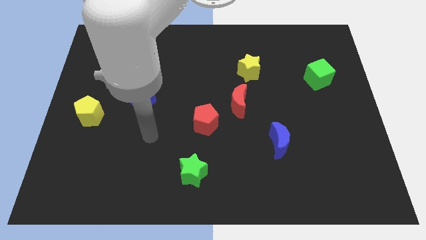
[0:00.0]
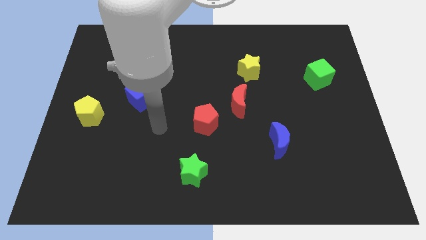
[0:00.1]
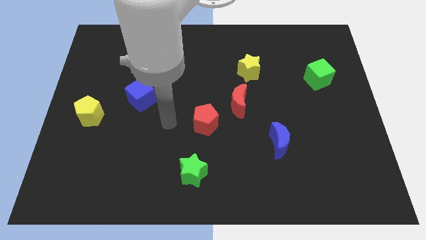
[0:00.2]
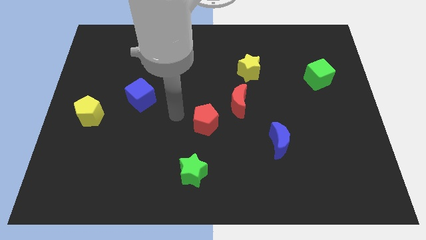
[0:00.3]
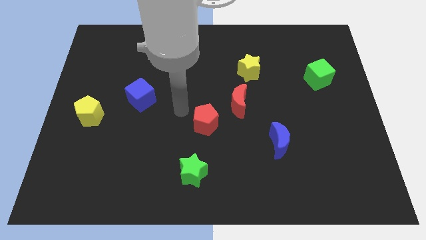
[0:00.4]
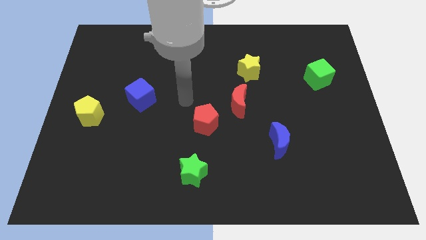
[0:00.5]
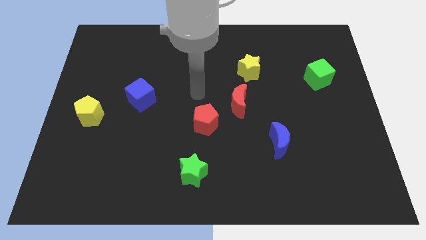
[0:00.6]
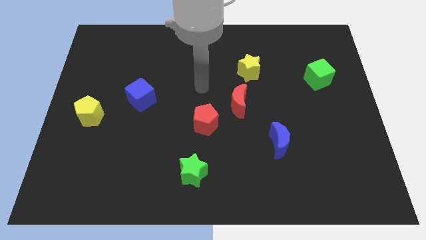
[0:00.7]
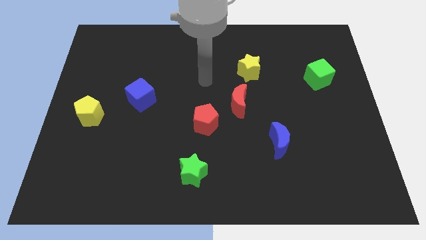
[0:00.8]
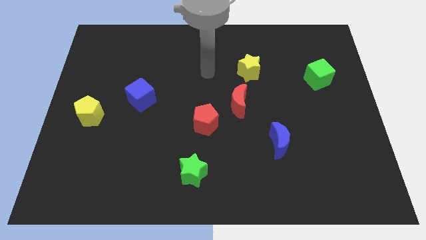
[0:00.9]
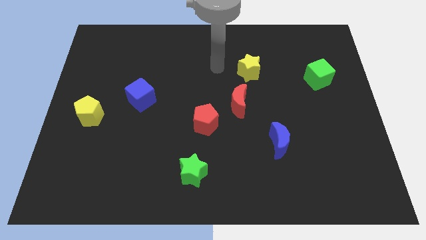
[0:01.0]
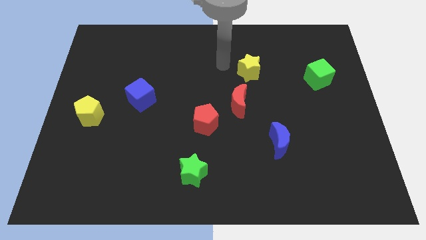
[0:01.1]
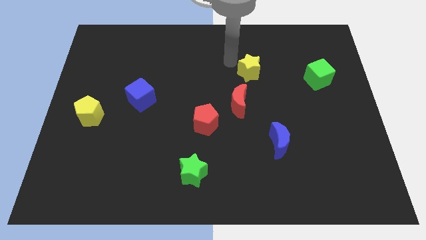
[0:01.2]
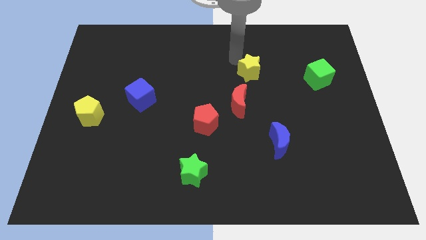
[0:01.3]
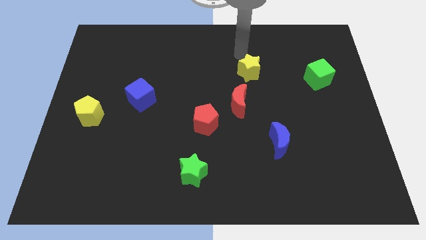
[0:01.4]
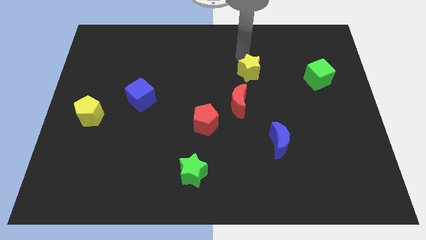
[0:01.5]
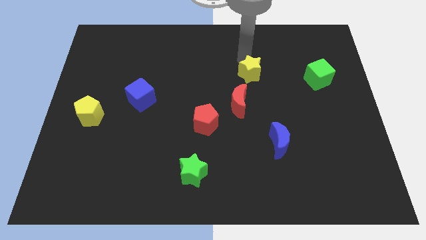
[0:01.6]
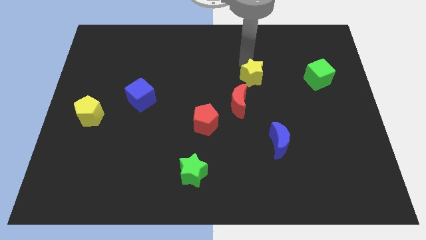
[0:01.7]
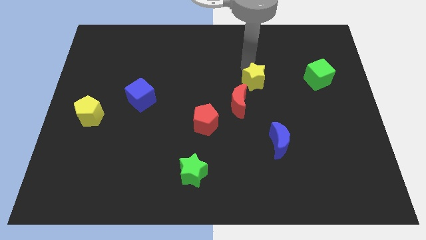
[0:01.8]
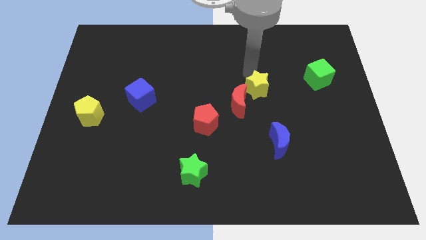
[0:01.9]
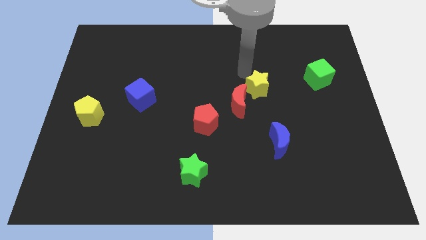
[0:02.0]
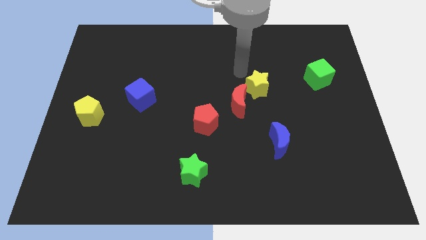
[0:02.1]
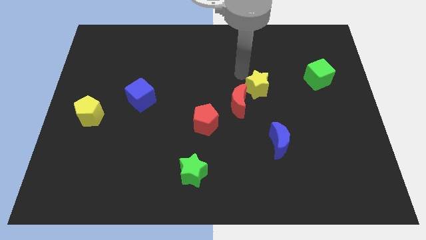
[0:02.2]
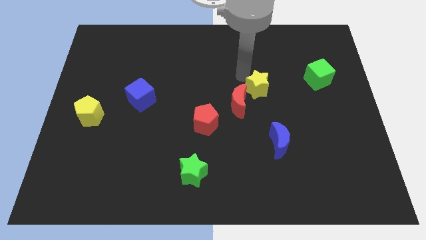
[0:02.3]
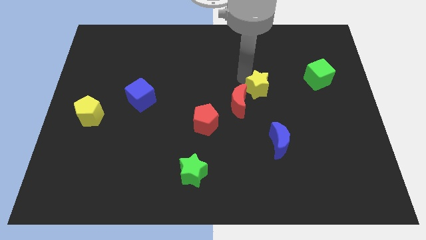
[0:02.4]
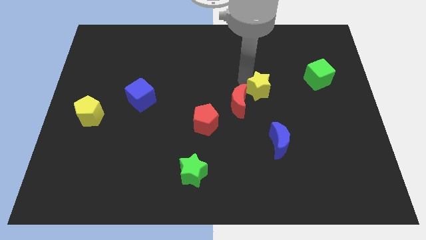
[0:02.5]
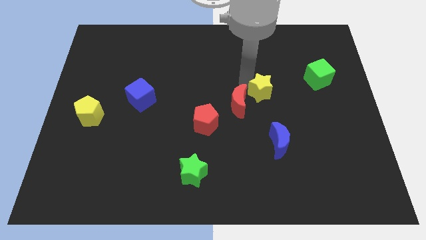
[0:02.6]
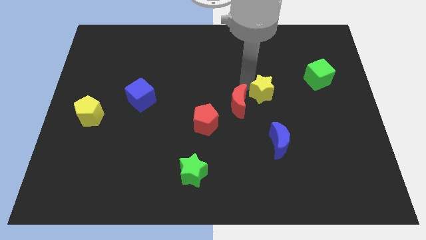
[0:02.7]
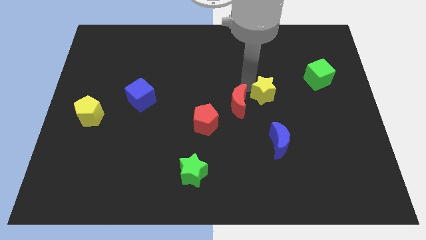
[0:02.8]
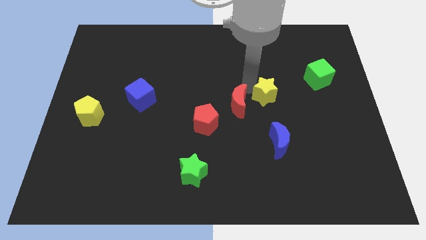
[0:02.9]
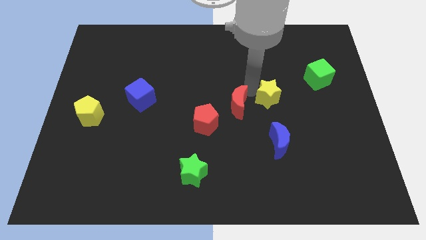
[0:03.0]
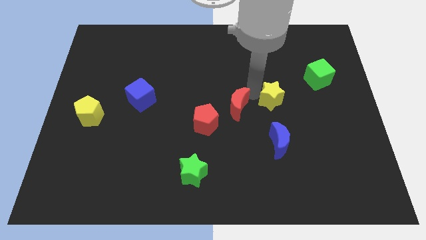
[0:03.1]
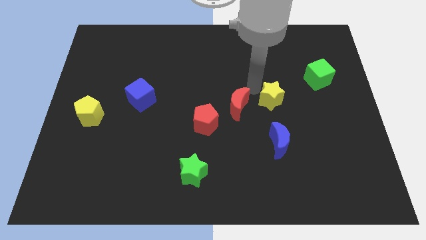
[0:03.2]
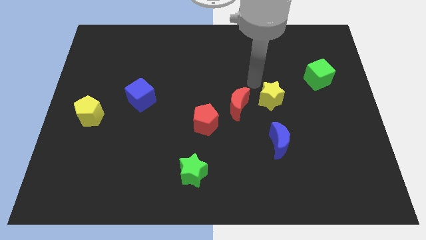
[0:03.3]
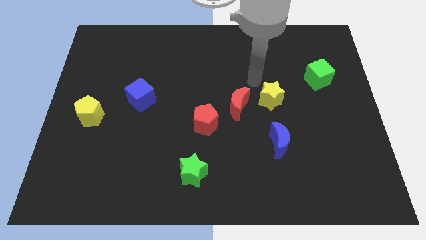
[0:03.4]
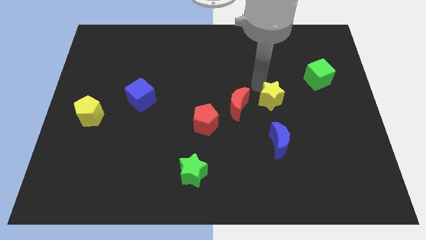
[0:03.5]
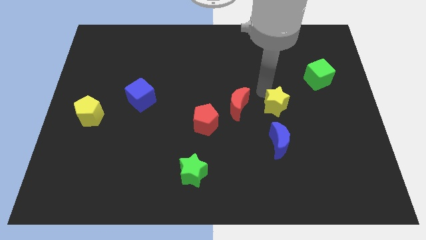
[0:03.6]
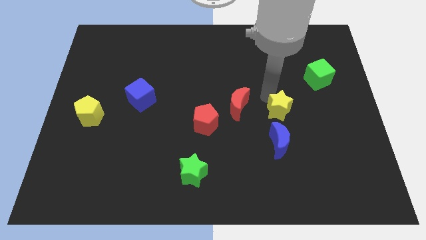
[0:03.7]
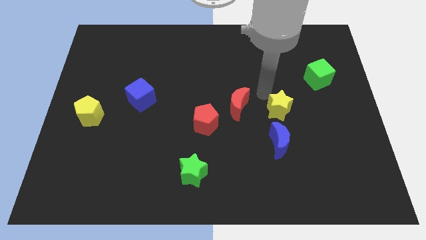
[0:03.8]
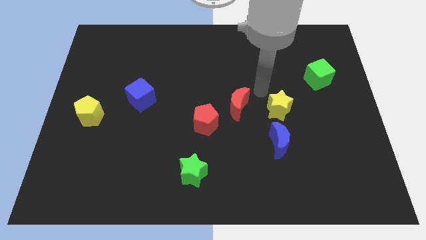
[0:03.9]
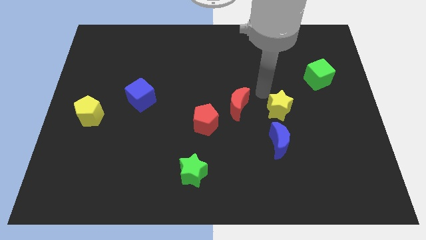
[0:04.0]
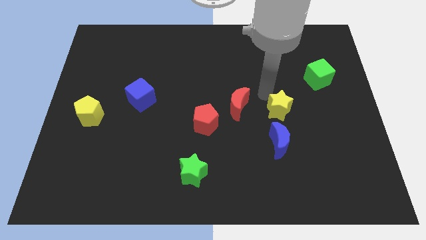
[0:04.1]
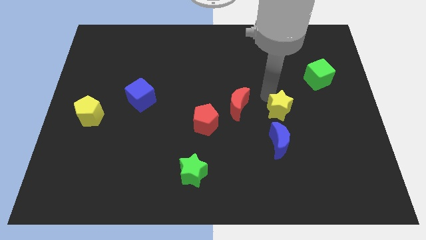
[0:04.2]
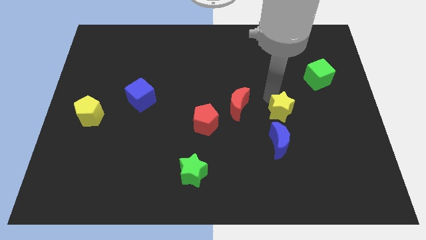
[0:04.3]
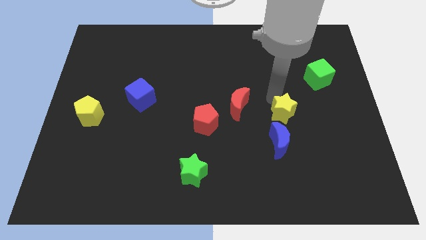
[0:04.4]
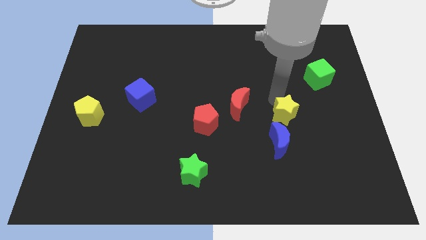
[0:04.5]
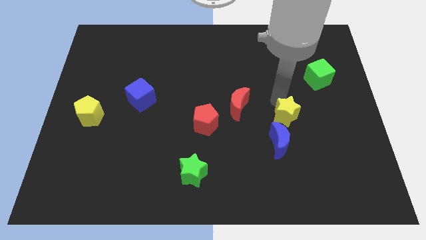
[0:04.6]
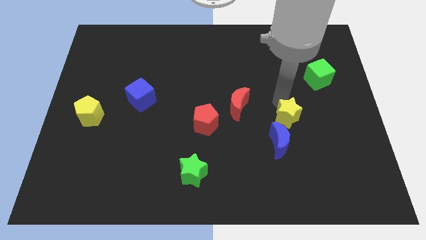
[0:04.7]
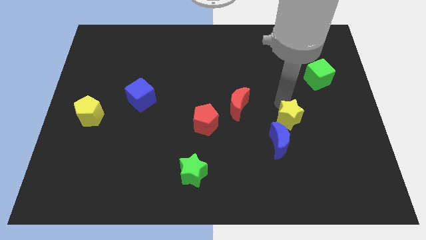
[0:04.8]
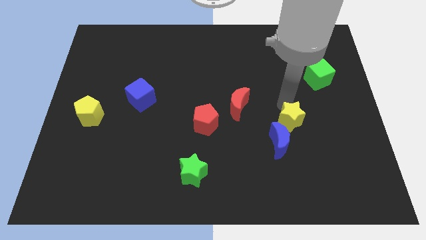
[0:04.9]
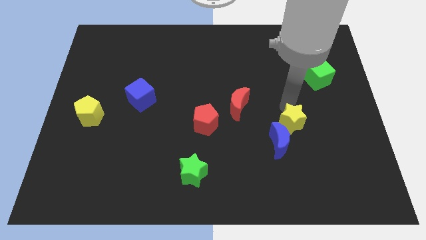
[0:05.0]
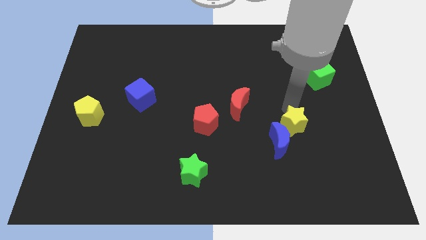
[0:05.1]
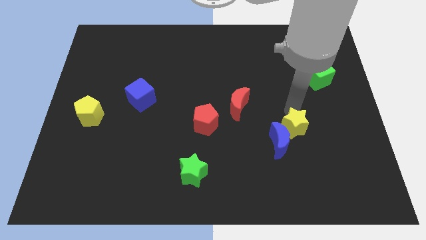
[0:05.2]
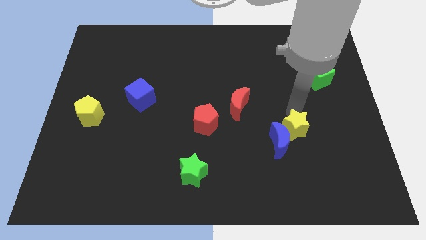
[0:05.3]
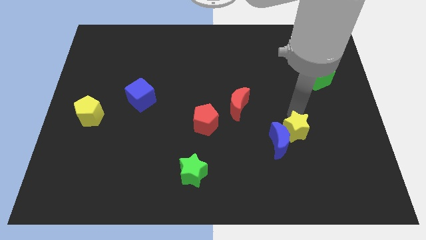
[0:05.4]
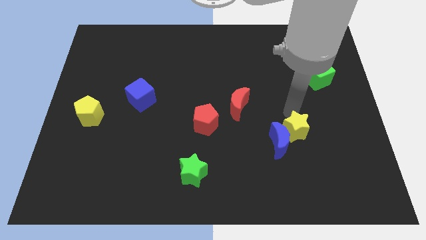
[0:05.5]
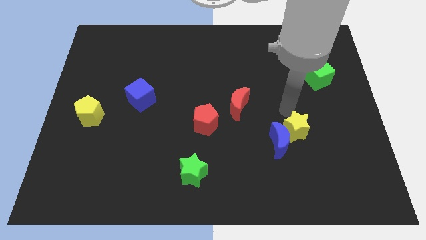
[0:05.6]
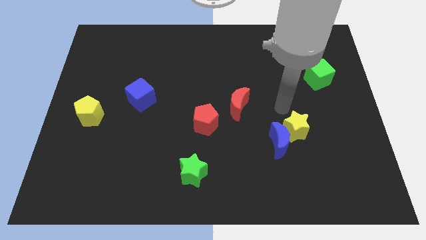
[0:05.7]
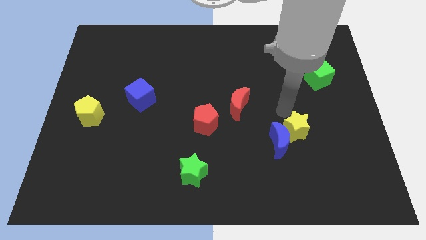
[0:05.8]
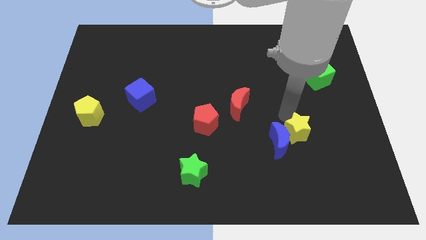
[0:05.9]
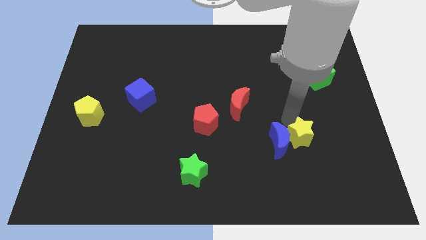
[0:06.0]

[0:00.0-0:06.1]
push the yellow star diagonally down and to the right of the blue moon

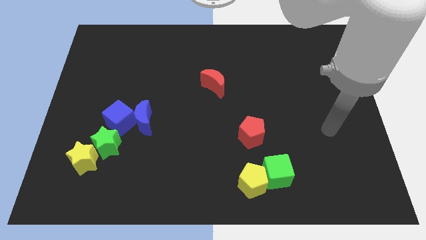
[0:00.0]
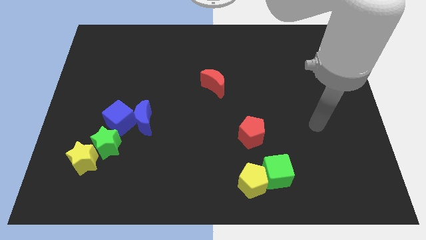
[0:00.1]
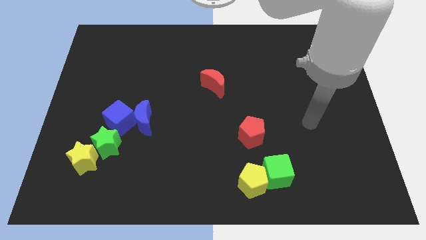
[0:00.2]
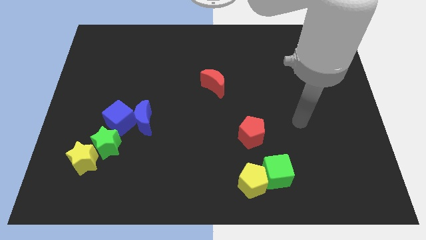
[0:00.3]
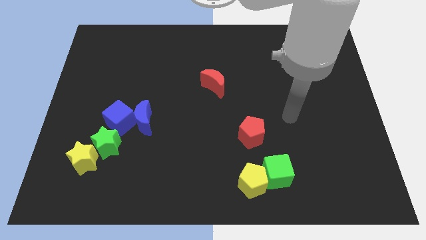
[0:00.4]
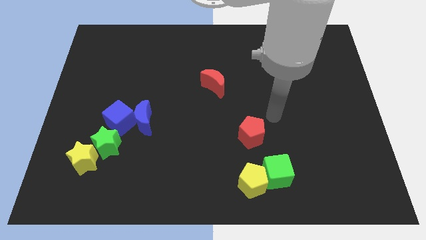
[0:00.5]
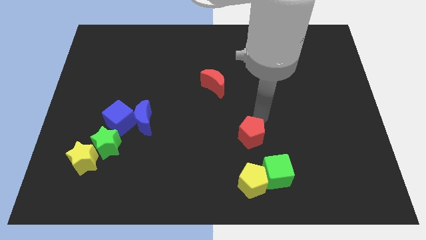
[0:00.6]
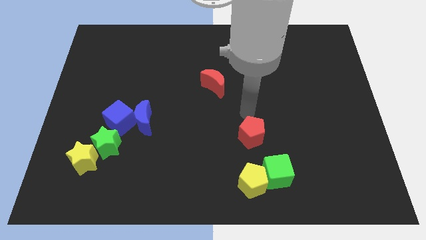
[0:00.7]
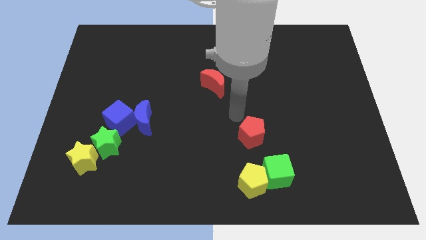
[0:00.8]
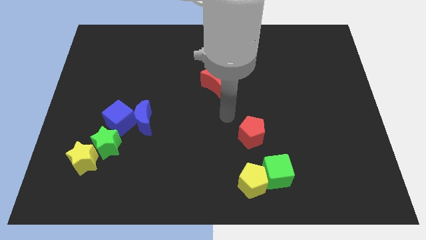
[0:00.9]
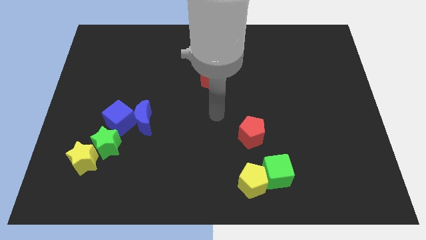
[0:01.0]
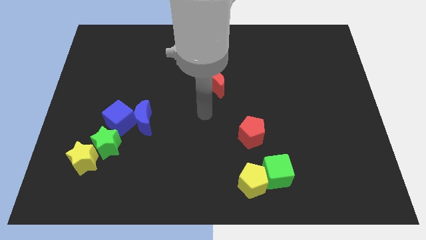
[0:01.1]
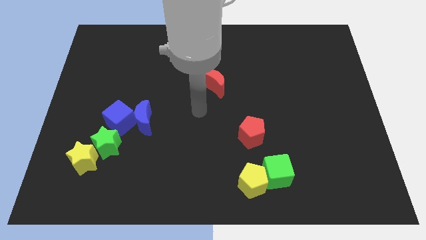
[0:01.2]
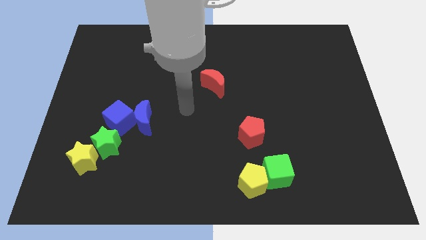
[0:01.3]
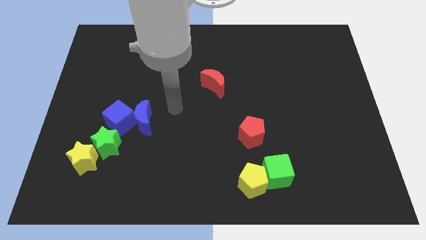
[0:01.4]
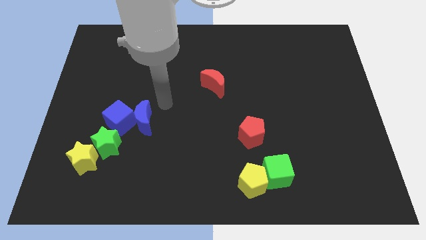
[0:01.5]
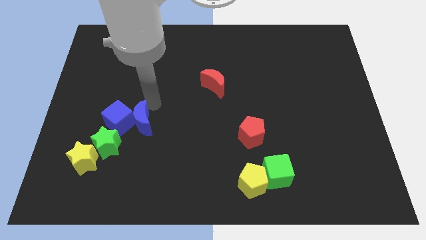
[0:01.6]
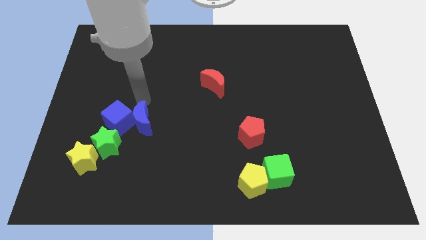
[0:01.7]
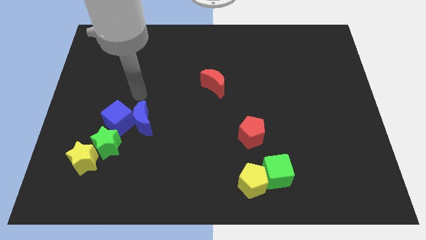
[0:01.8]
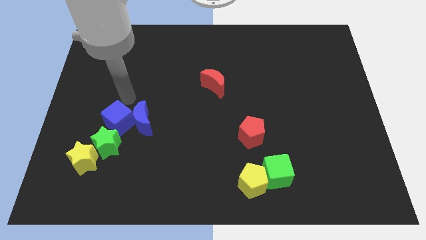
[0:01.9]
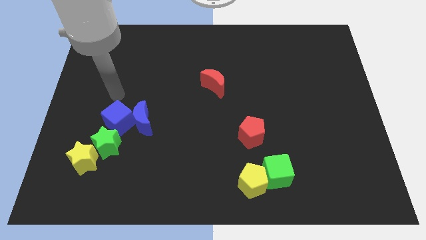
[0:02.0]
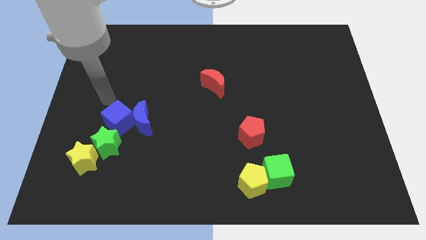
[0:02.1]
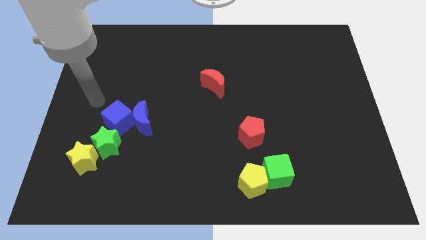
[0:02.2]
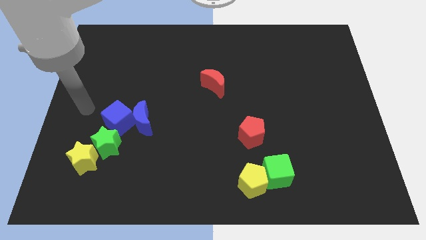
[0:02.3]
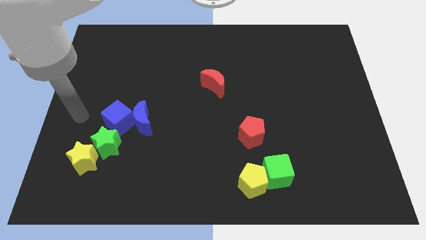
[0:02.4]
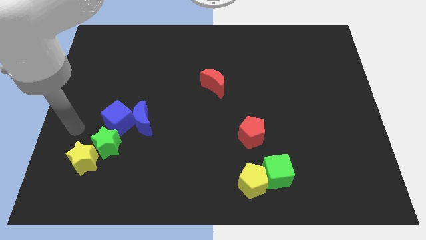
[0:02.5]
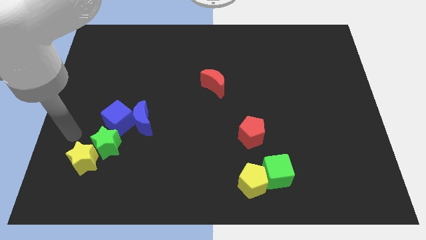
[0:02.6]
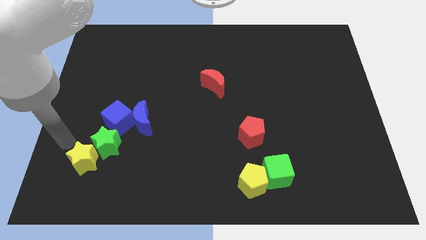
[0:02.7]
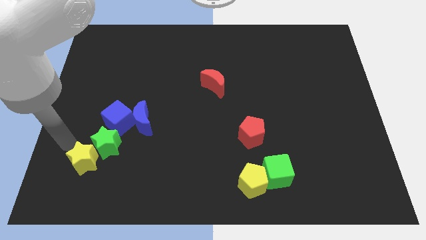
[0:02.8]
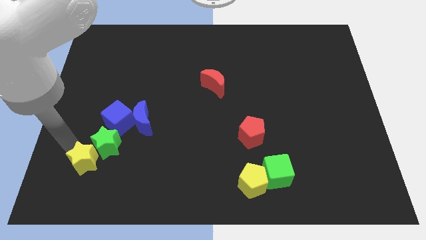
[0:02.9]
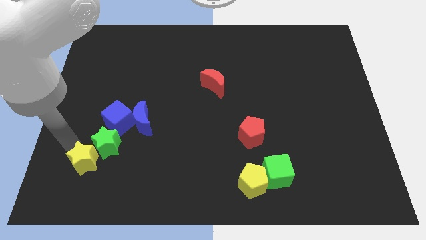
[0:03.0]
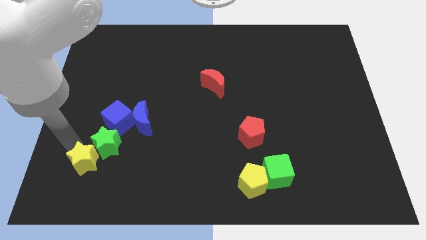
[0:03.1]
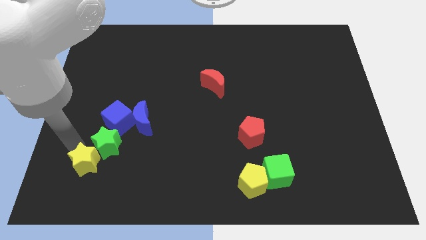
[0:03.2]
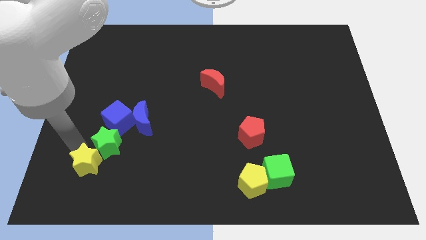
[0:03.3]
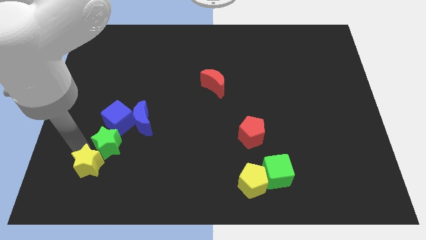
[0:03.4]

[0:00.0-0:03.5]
push the yellow star to the bottom side of the blue cube
